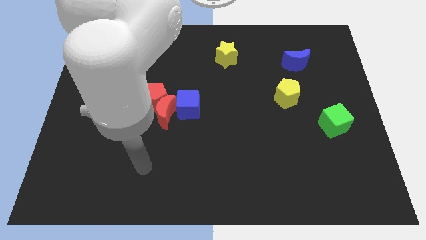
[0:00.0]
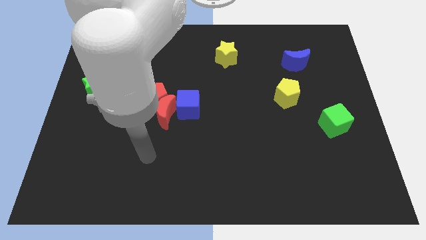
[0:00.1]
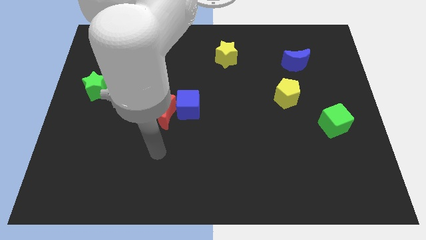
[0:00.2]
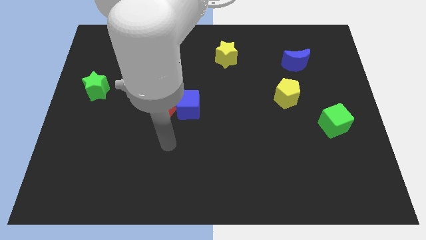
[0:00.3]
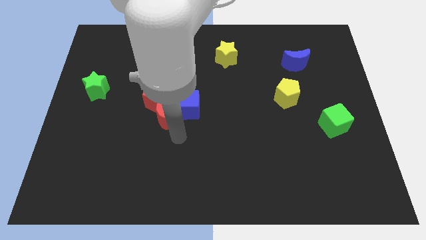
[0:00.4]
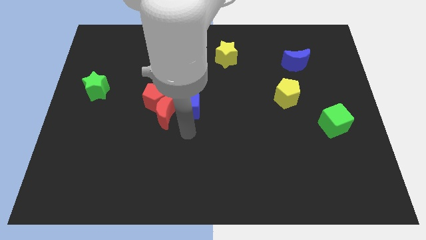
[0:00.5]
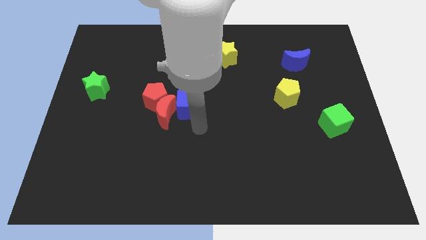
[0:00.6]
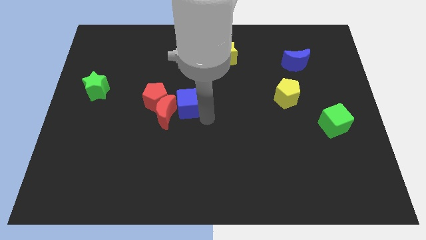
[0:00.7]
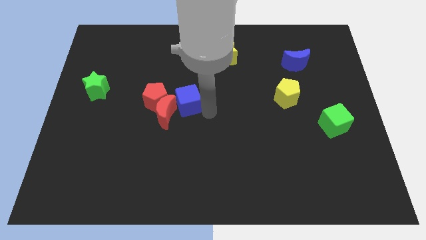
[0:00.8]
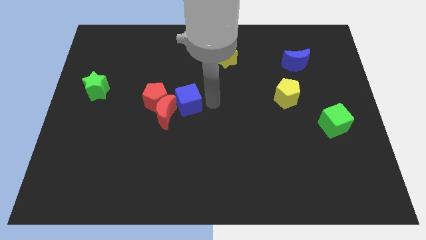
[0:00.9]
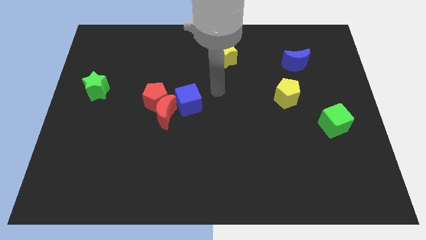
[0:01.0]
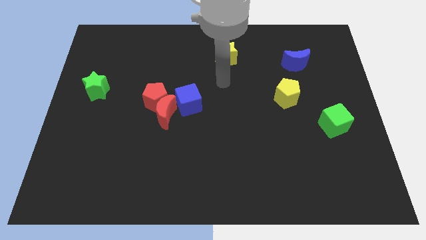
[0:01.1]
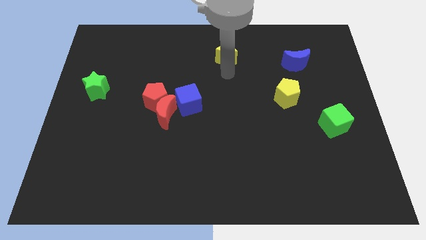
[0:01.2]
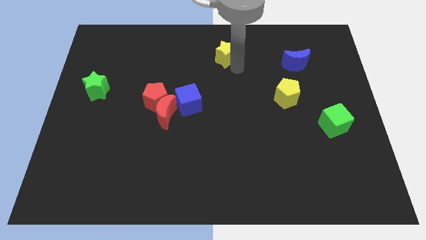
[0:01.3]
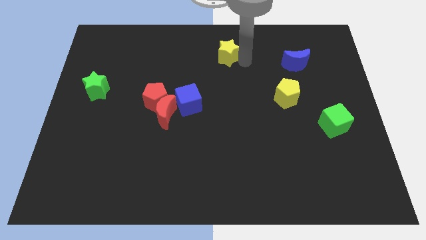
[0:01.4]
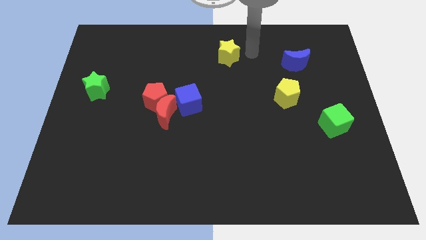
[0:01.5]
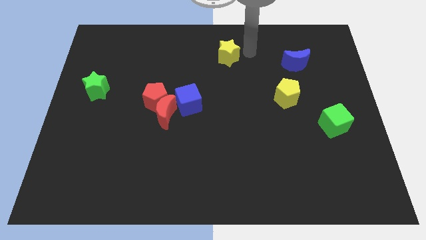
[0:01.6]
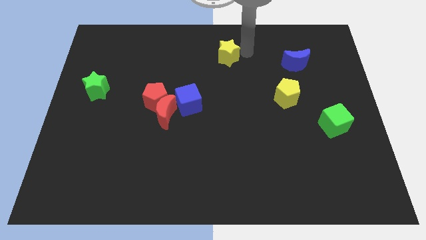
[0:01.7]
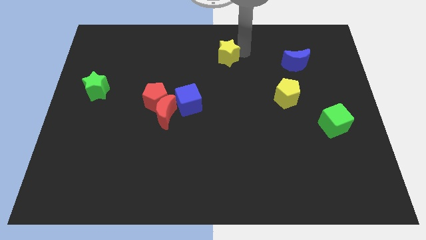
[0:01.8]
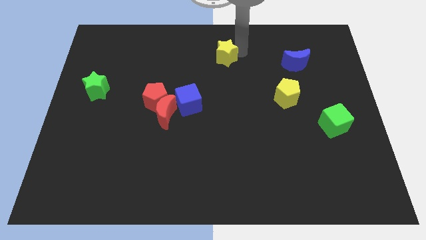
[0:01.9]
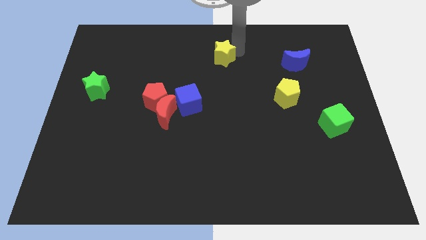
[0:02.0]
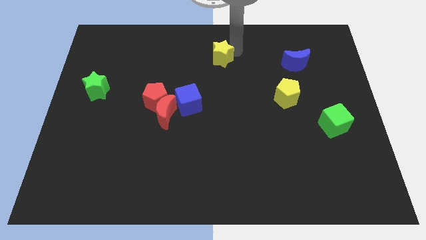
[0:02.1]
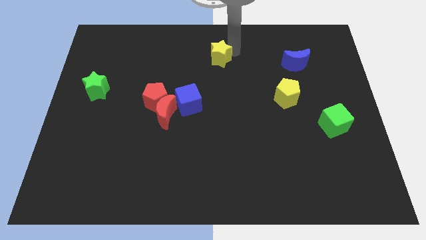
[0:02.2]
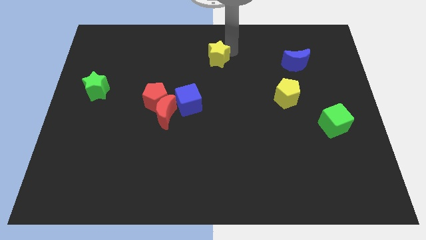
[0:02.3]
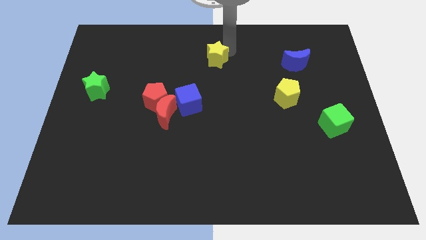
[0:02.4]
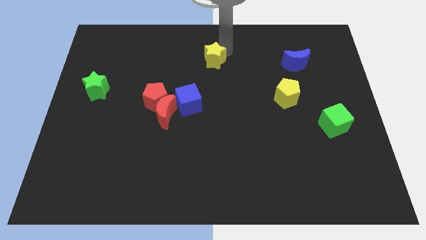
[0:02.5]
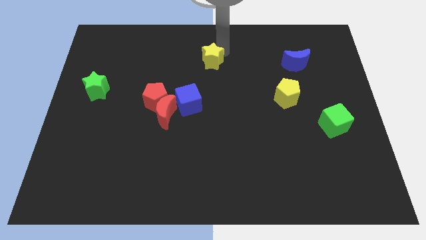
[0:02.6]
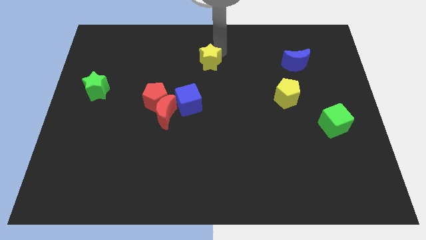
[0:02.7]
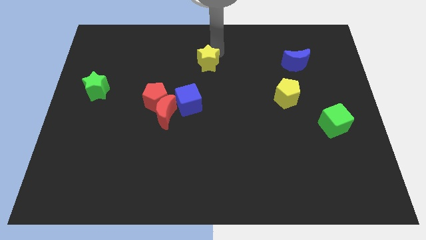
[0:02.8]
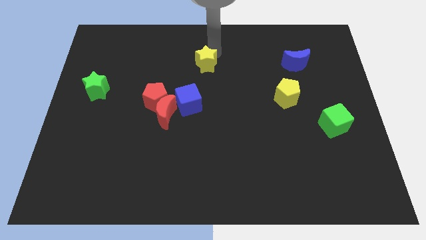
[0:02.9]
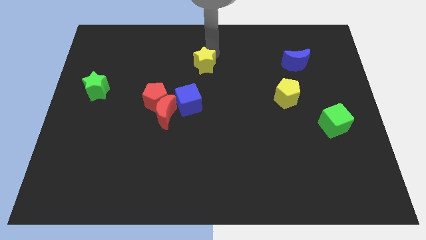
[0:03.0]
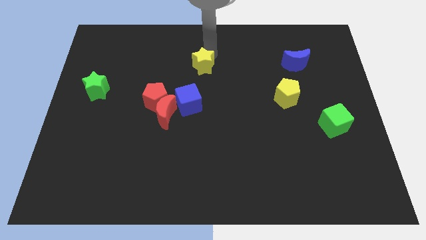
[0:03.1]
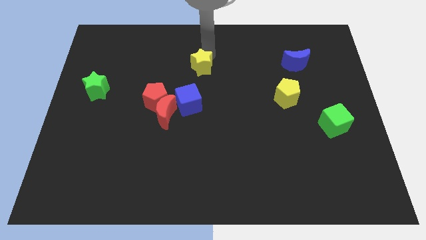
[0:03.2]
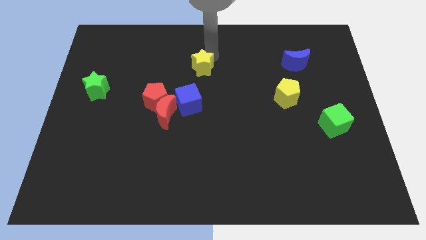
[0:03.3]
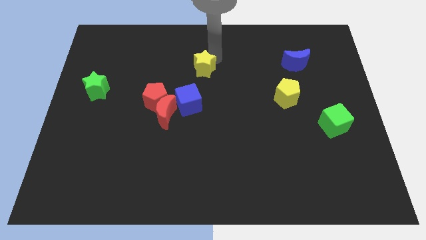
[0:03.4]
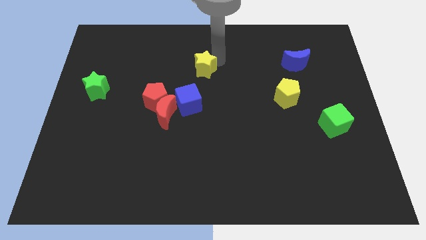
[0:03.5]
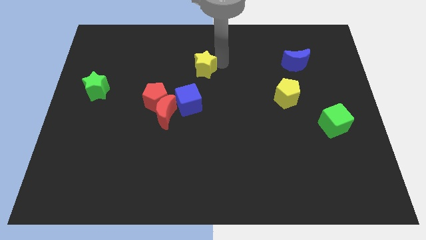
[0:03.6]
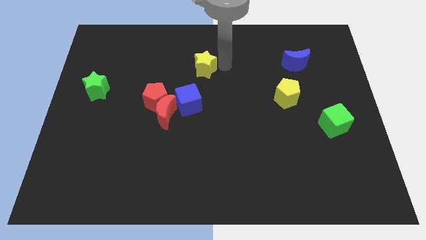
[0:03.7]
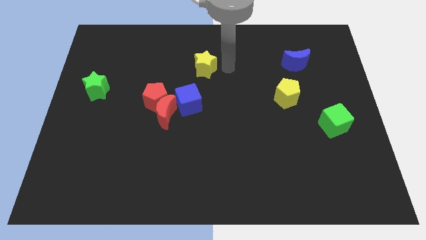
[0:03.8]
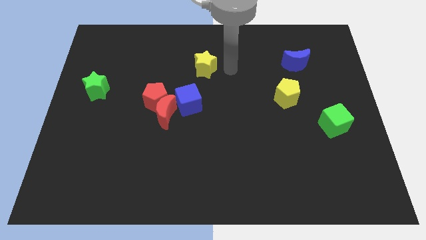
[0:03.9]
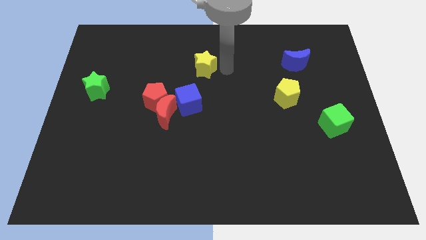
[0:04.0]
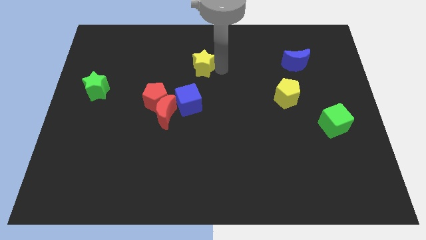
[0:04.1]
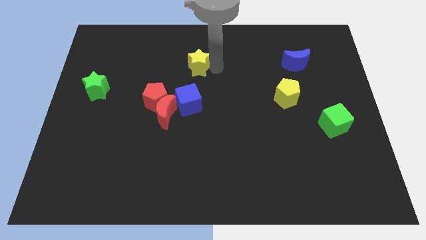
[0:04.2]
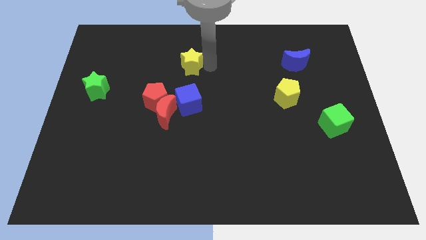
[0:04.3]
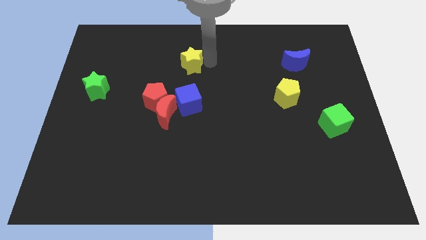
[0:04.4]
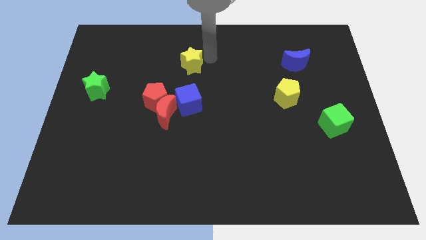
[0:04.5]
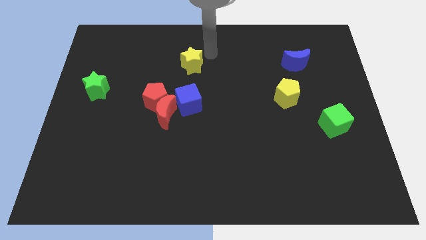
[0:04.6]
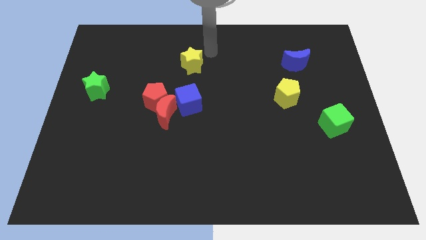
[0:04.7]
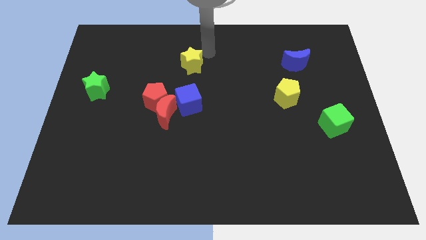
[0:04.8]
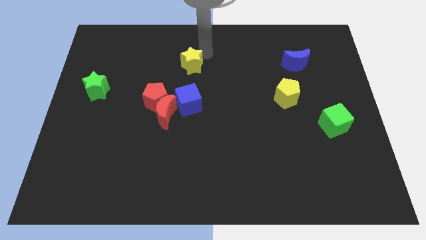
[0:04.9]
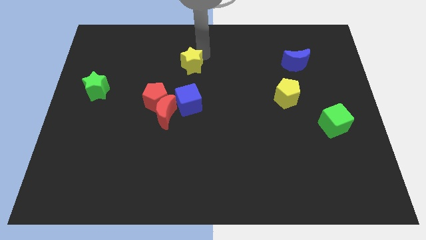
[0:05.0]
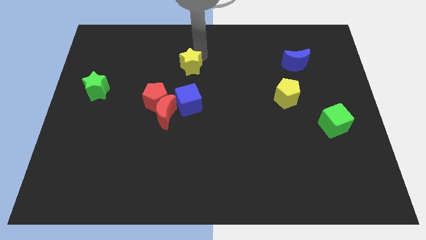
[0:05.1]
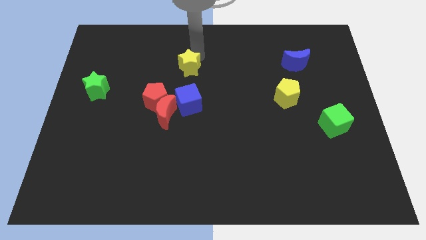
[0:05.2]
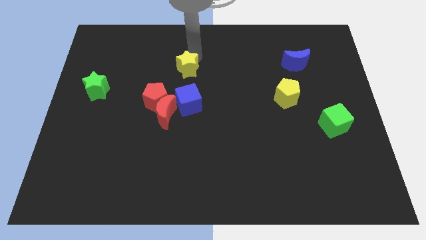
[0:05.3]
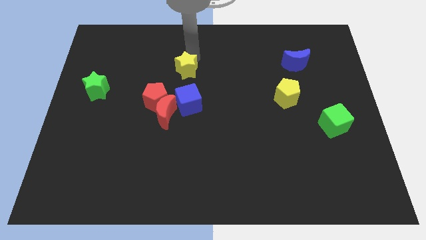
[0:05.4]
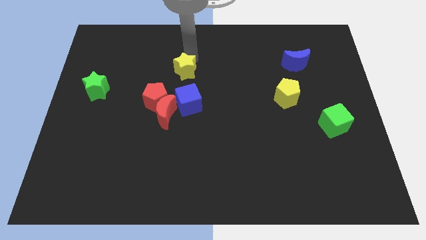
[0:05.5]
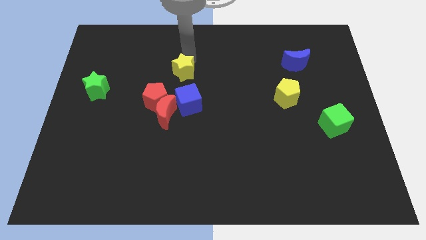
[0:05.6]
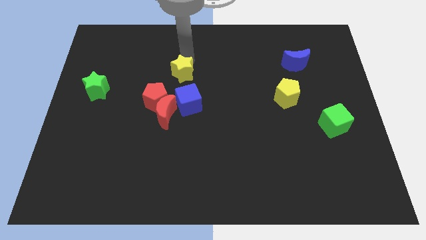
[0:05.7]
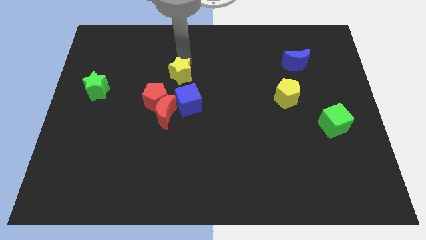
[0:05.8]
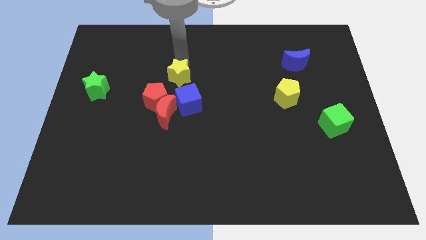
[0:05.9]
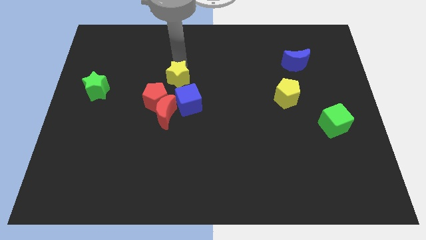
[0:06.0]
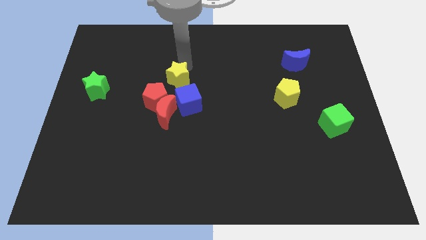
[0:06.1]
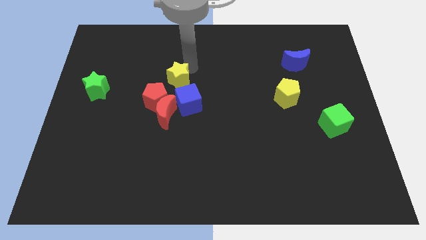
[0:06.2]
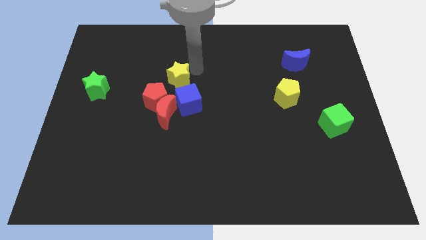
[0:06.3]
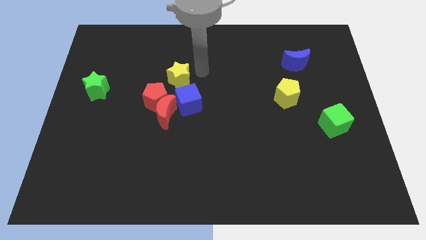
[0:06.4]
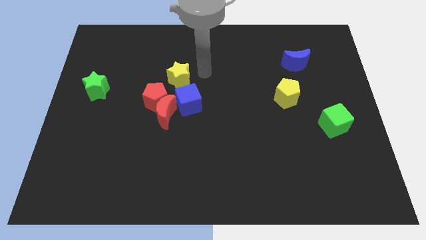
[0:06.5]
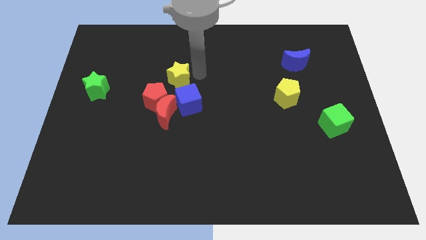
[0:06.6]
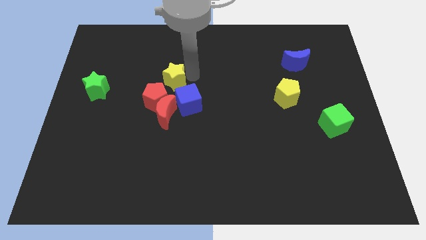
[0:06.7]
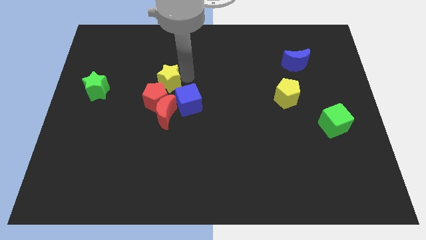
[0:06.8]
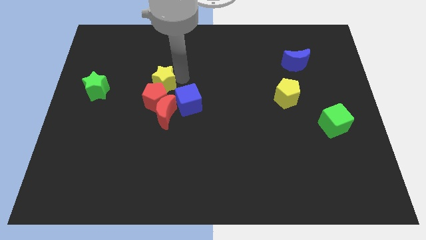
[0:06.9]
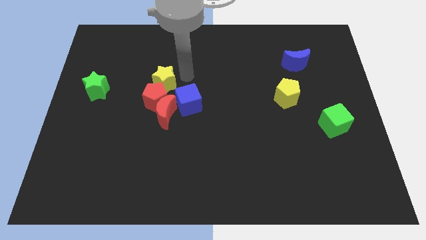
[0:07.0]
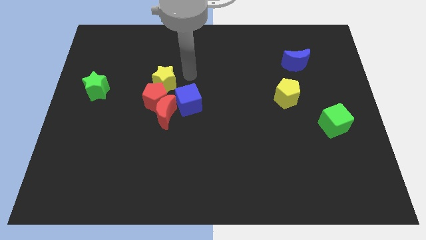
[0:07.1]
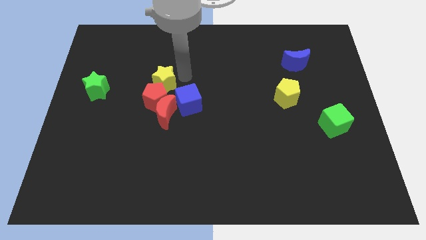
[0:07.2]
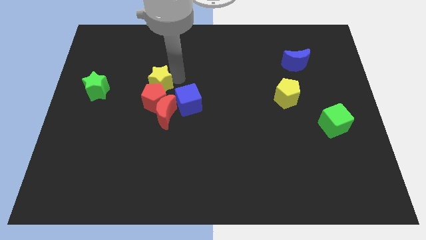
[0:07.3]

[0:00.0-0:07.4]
push the yellow star to the right of the green star
